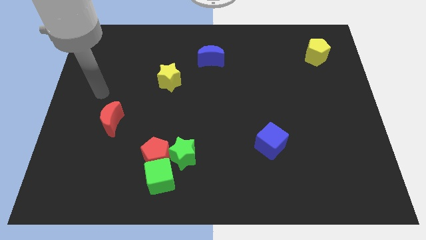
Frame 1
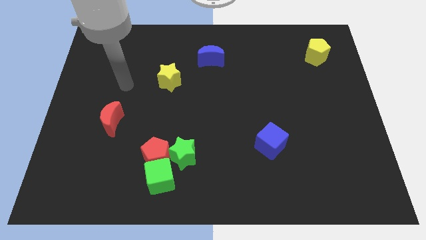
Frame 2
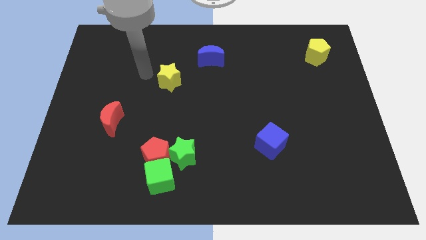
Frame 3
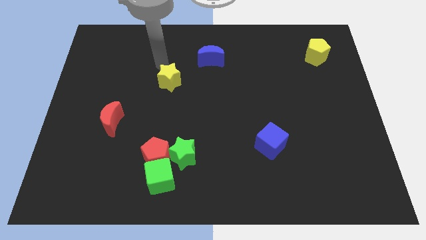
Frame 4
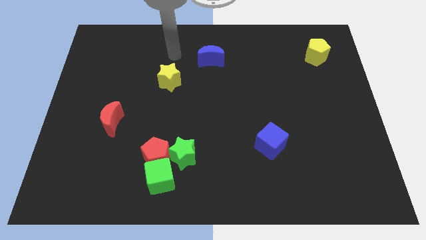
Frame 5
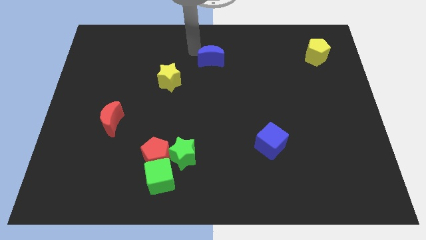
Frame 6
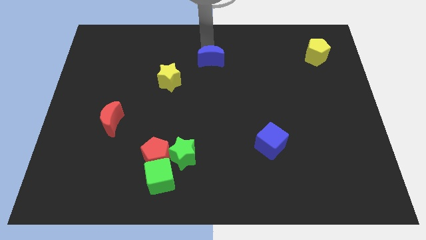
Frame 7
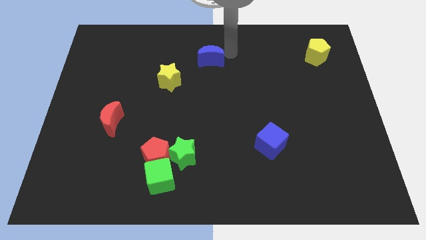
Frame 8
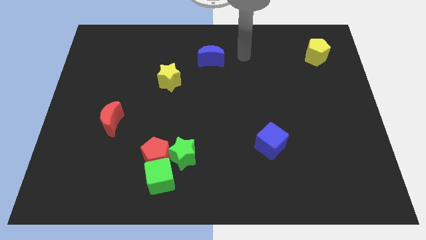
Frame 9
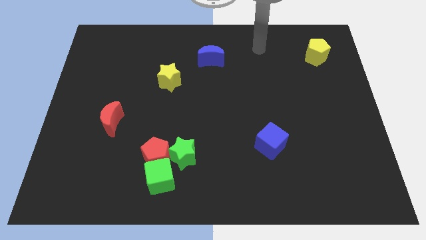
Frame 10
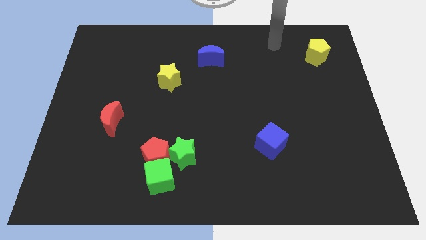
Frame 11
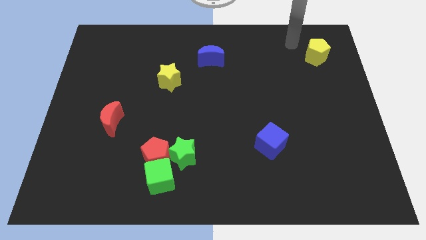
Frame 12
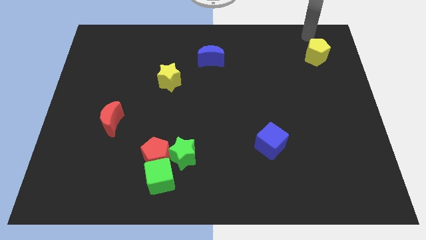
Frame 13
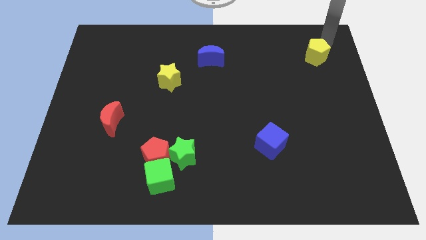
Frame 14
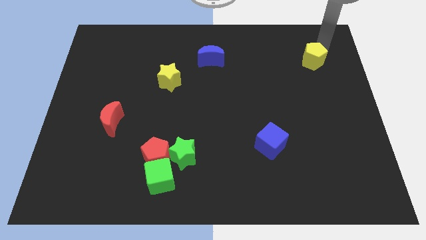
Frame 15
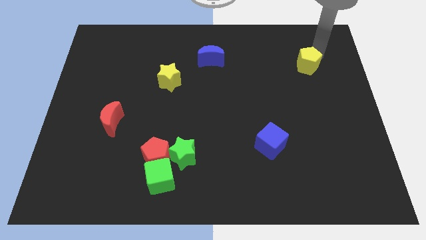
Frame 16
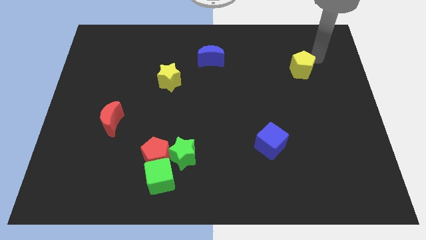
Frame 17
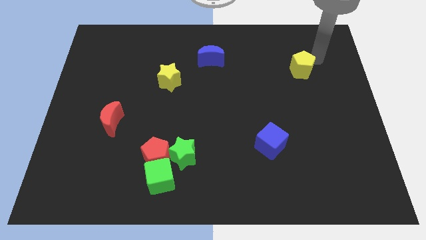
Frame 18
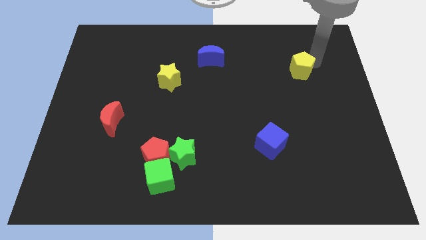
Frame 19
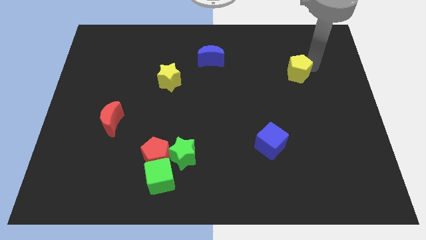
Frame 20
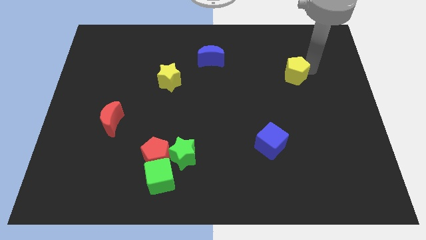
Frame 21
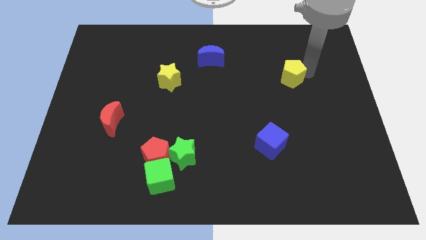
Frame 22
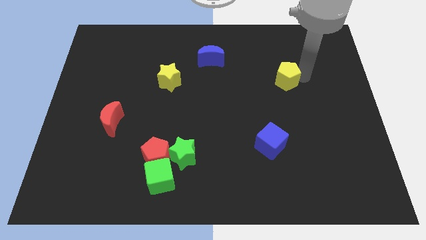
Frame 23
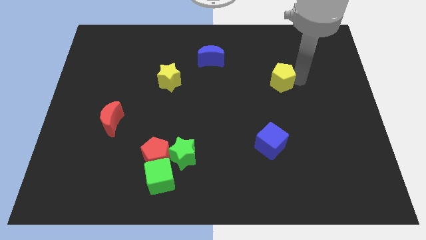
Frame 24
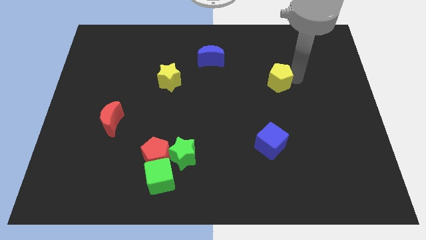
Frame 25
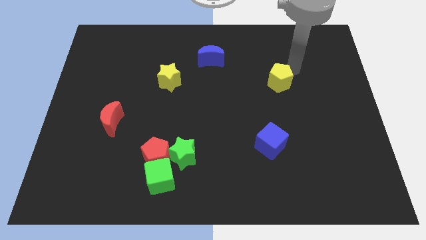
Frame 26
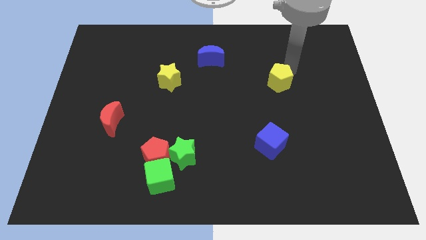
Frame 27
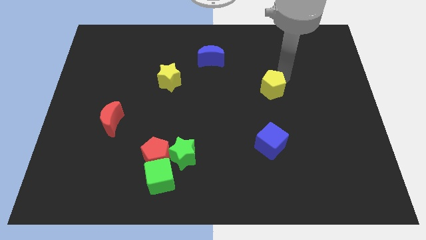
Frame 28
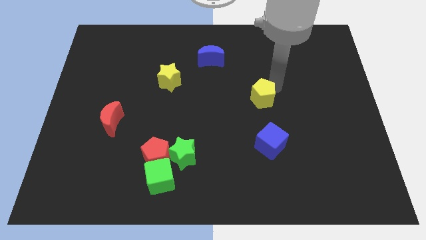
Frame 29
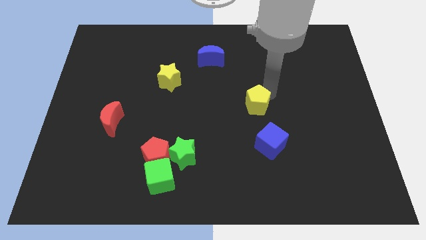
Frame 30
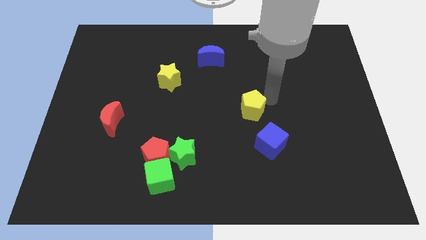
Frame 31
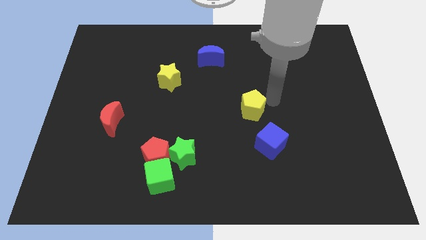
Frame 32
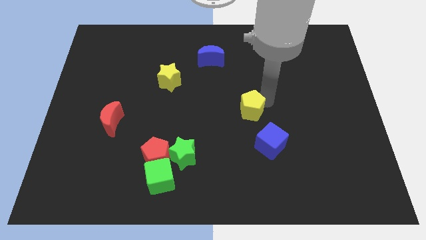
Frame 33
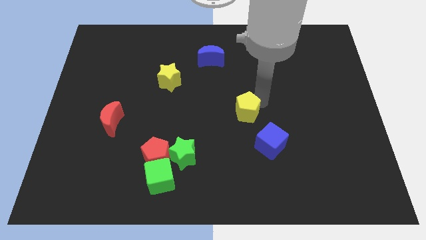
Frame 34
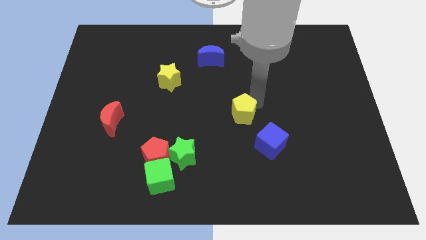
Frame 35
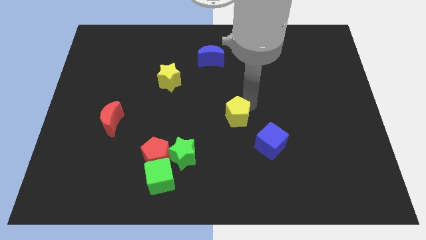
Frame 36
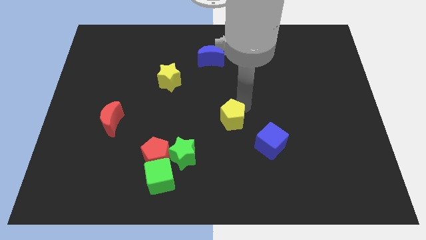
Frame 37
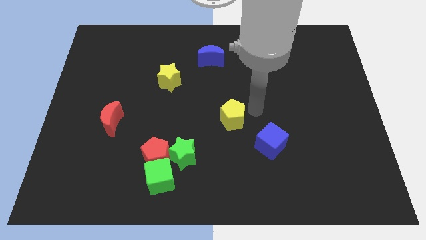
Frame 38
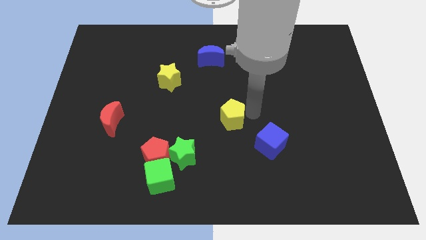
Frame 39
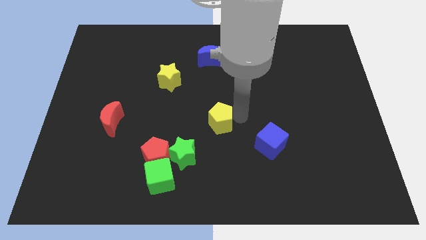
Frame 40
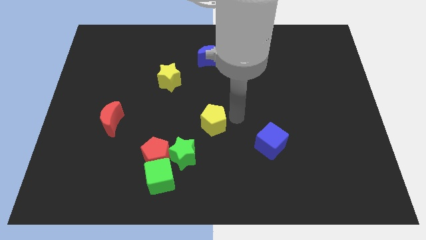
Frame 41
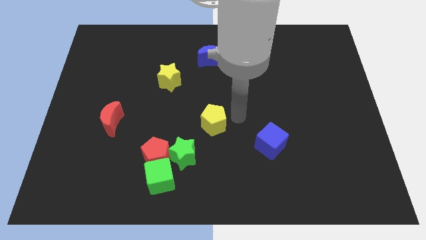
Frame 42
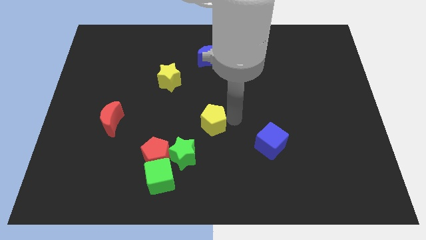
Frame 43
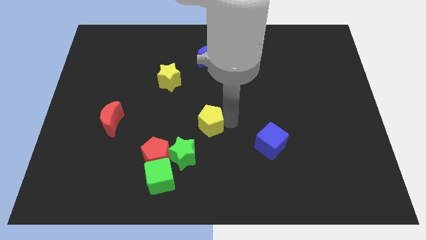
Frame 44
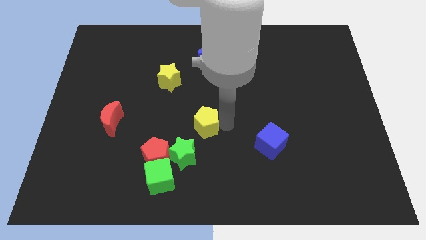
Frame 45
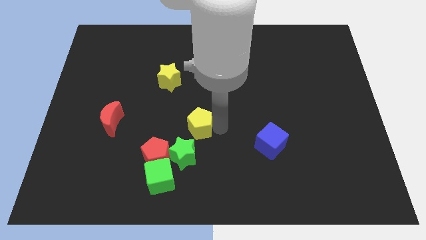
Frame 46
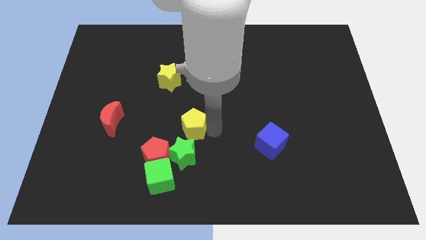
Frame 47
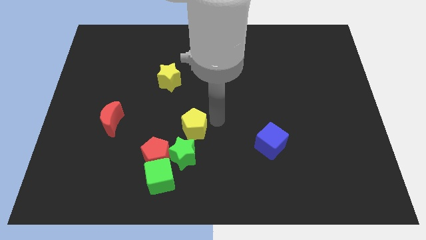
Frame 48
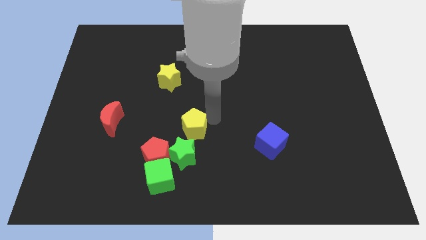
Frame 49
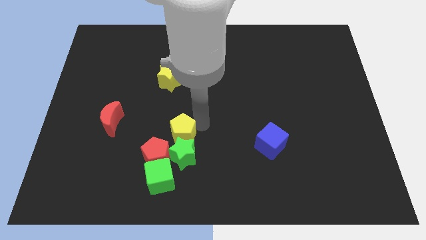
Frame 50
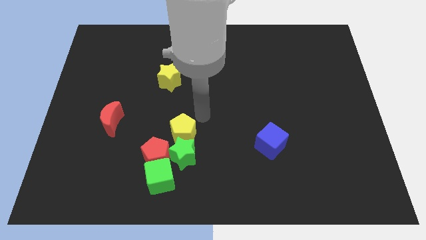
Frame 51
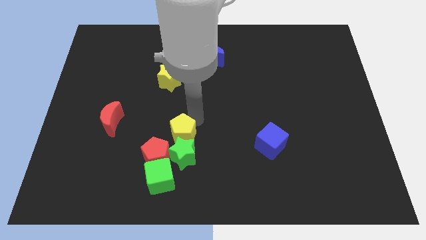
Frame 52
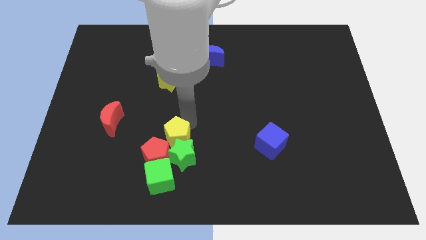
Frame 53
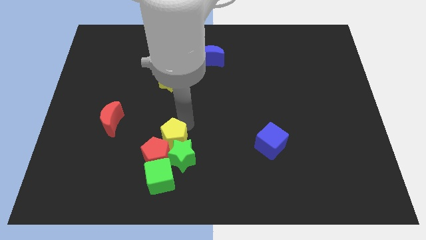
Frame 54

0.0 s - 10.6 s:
put the yellow pentagon close to the red pentagon

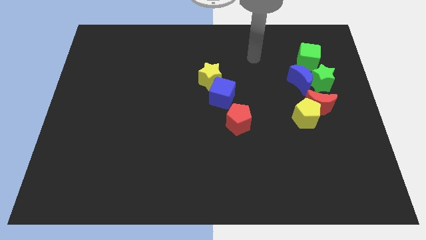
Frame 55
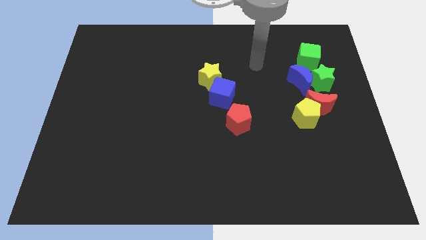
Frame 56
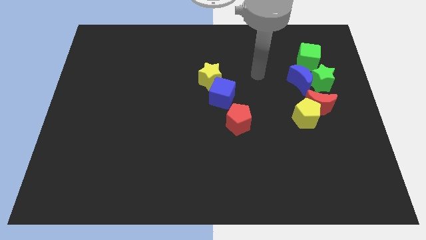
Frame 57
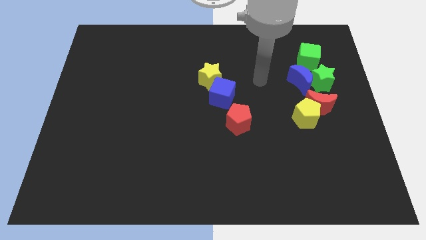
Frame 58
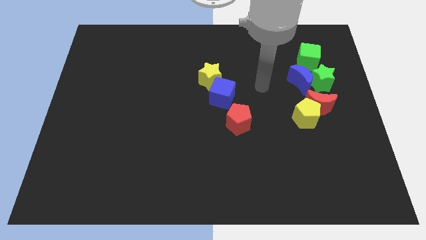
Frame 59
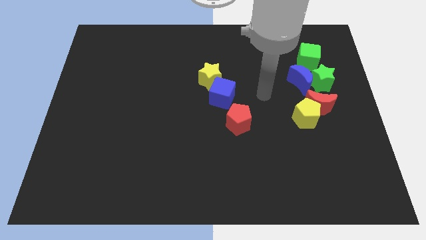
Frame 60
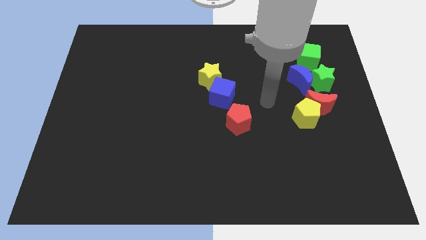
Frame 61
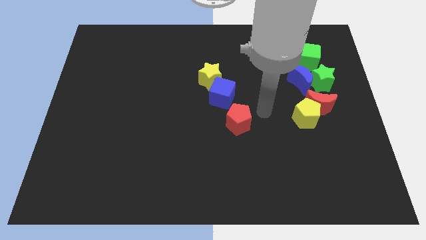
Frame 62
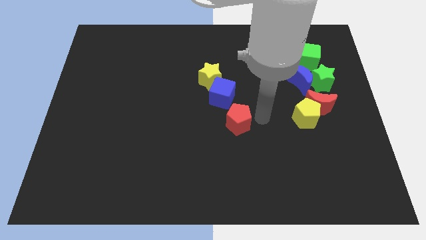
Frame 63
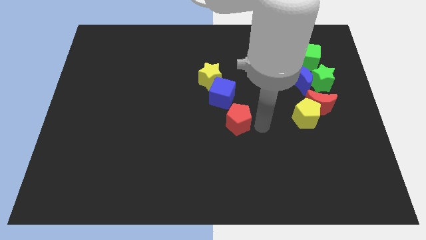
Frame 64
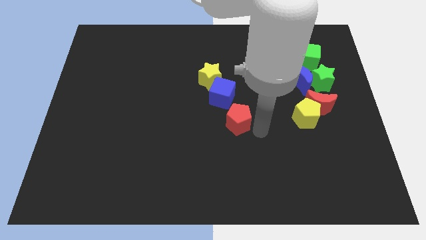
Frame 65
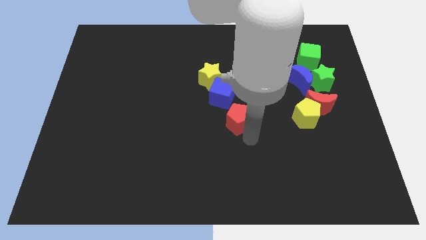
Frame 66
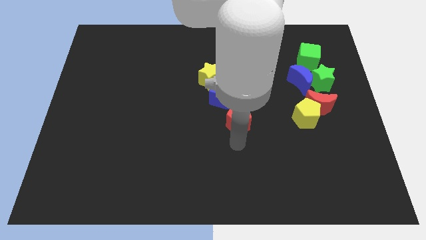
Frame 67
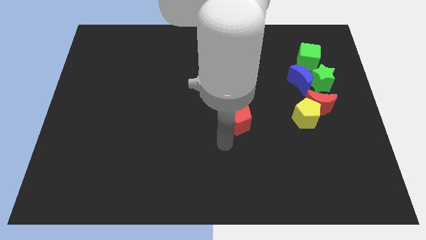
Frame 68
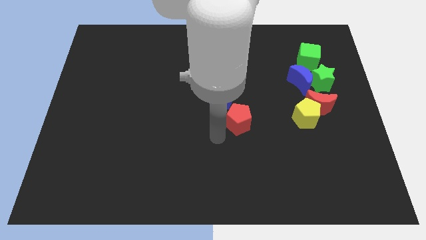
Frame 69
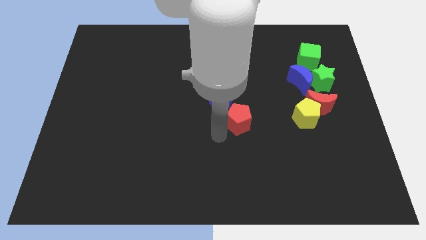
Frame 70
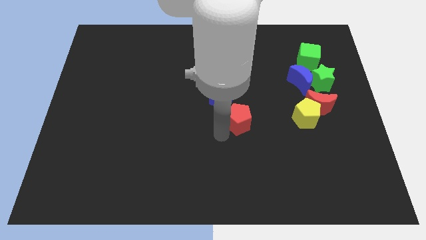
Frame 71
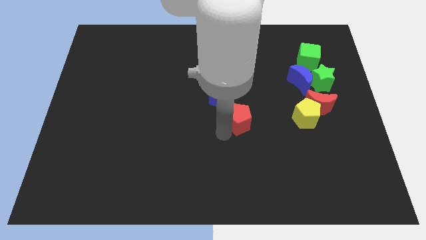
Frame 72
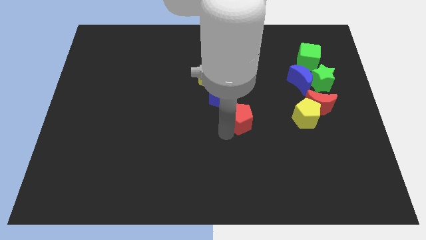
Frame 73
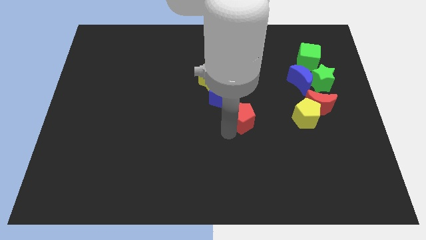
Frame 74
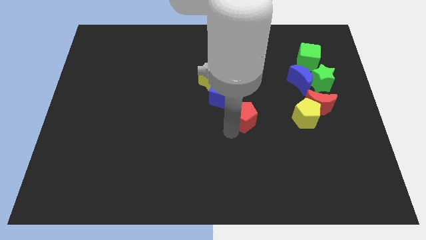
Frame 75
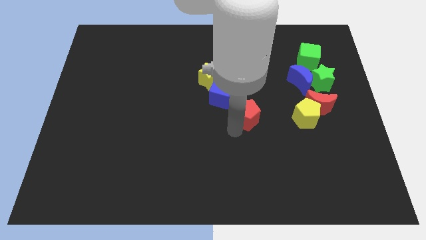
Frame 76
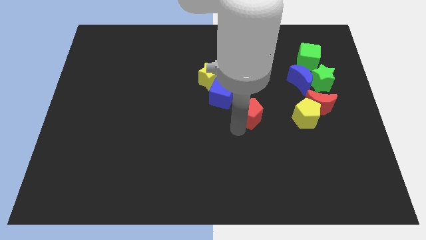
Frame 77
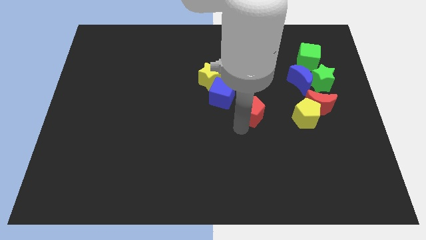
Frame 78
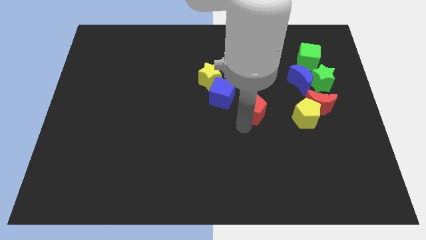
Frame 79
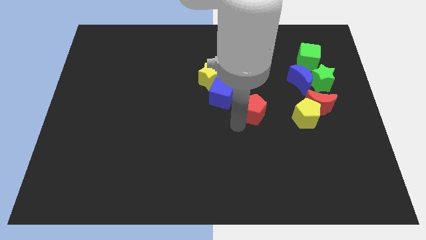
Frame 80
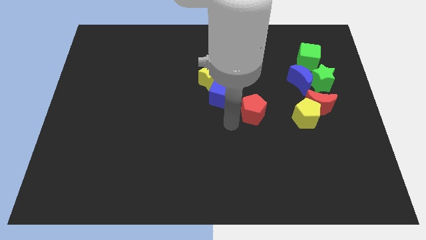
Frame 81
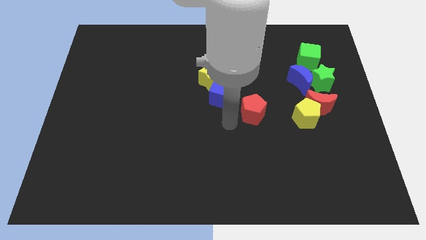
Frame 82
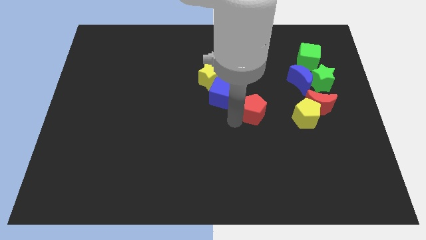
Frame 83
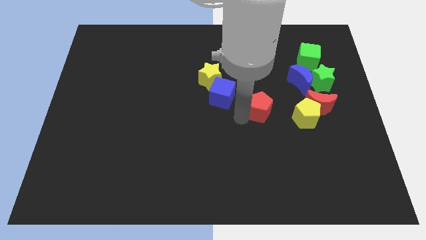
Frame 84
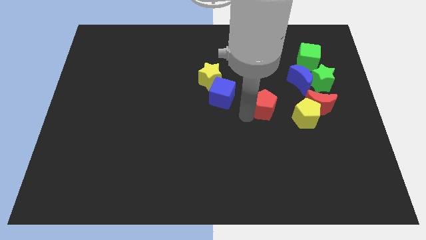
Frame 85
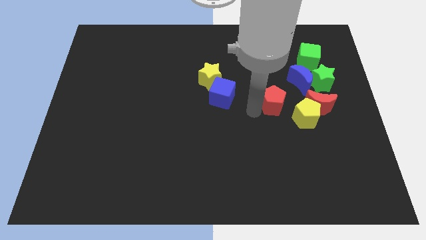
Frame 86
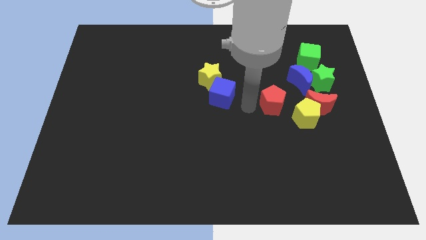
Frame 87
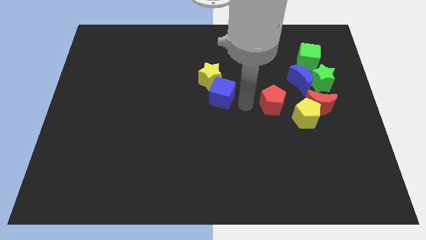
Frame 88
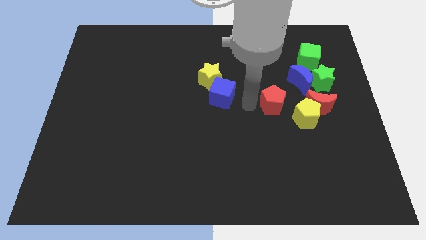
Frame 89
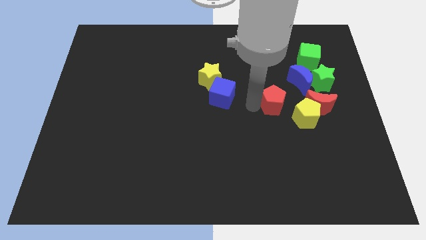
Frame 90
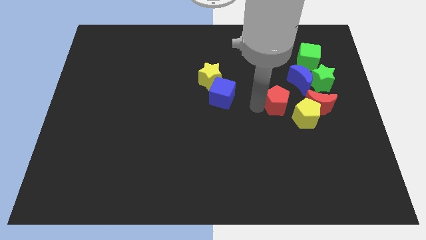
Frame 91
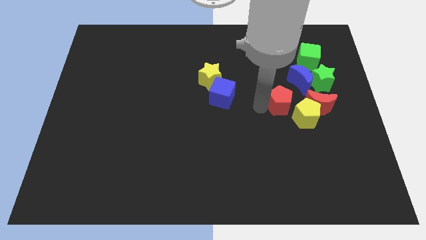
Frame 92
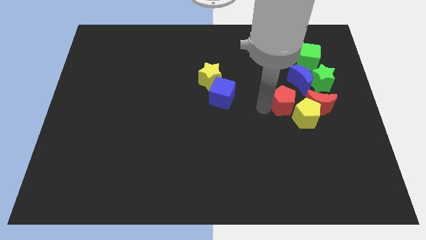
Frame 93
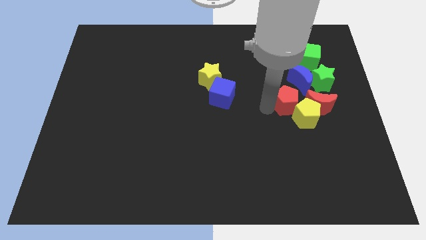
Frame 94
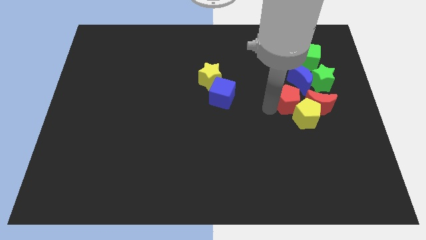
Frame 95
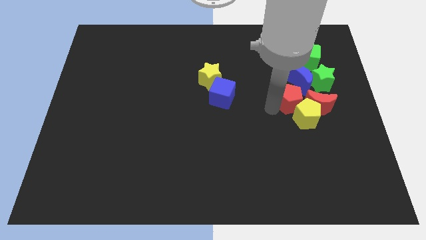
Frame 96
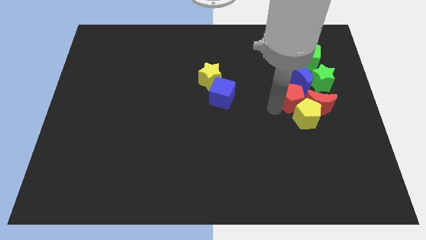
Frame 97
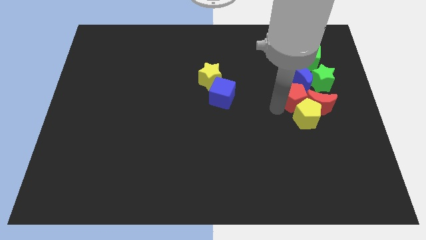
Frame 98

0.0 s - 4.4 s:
put the red pentagon to the red moon
